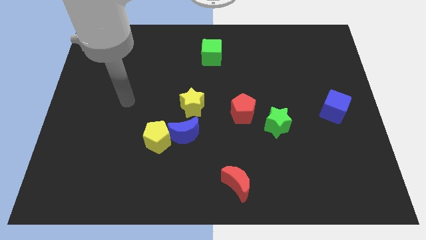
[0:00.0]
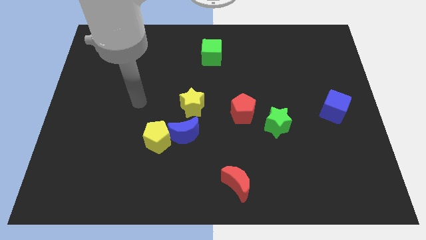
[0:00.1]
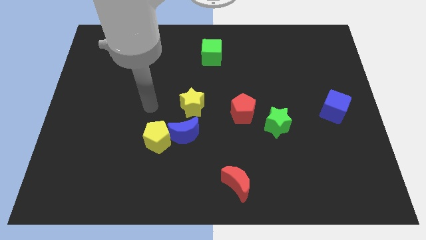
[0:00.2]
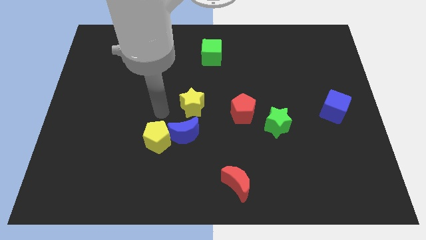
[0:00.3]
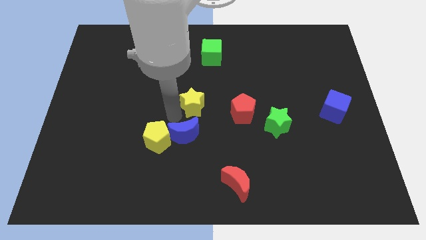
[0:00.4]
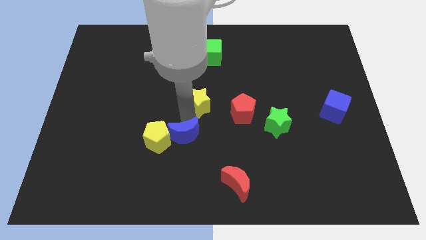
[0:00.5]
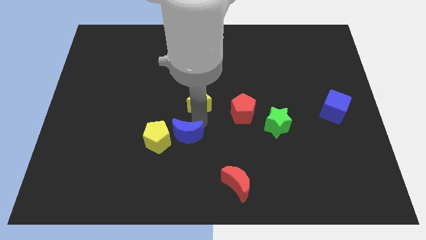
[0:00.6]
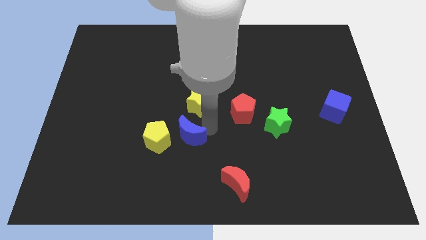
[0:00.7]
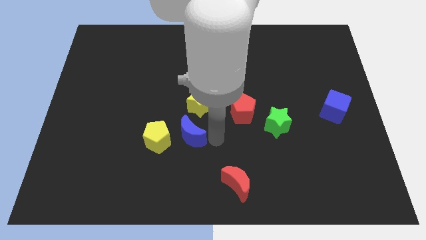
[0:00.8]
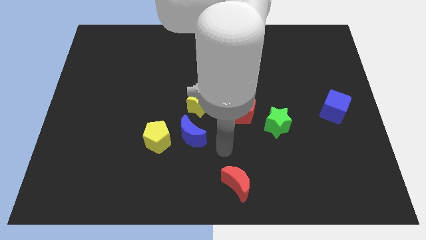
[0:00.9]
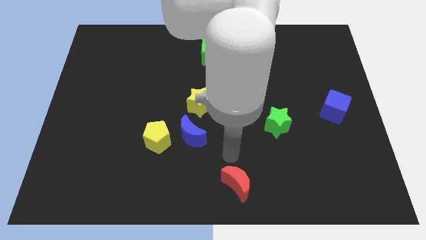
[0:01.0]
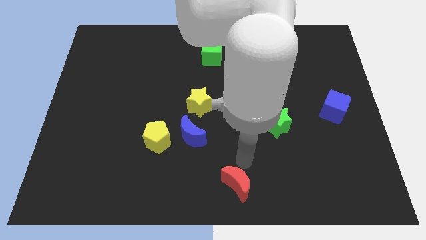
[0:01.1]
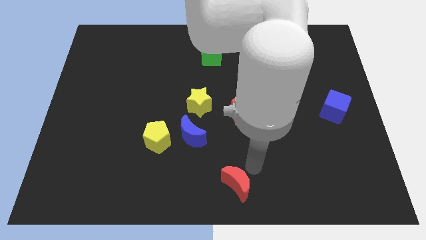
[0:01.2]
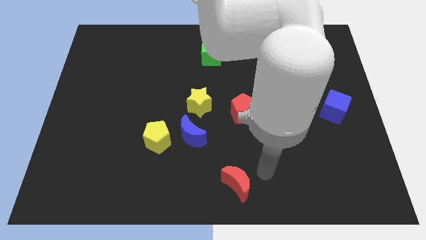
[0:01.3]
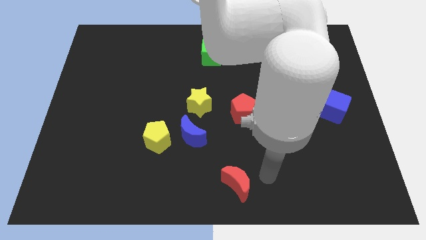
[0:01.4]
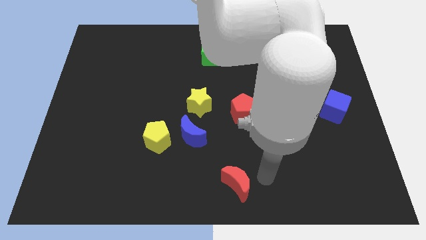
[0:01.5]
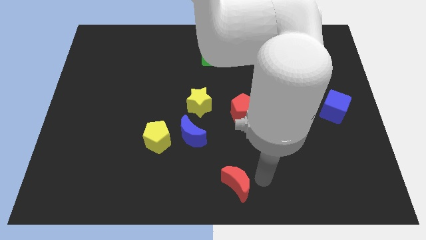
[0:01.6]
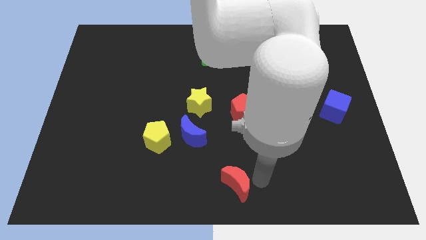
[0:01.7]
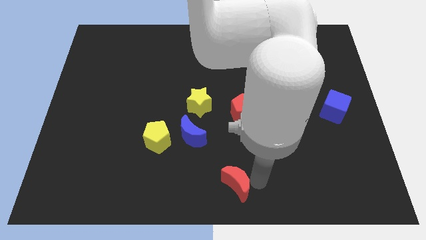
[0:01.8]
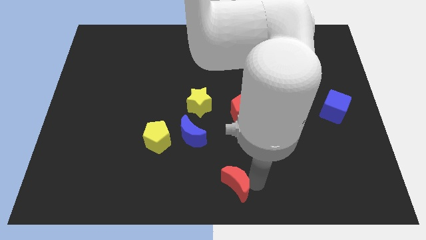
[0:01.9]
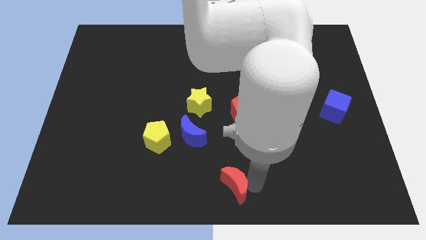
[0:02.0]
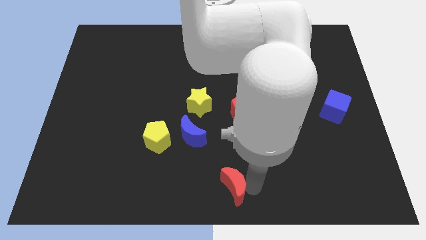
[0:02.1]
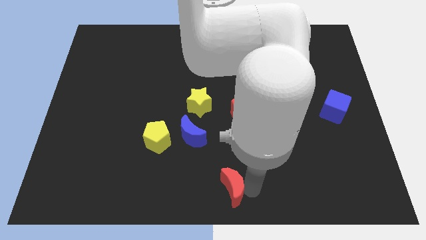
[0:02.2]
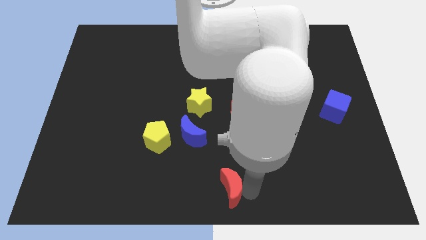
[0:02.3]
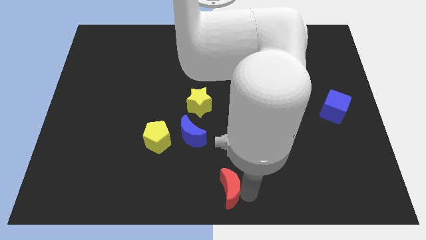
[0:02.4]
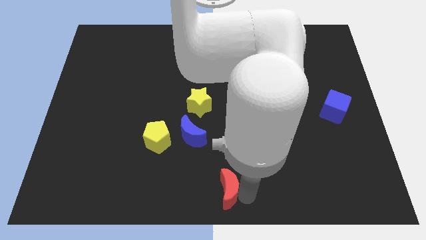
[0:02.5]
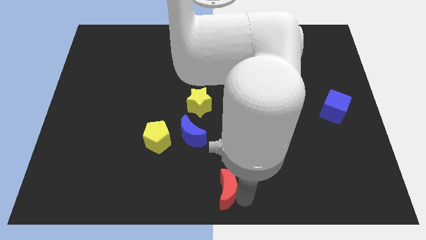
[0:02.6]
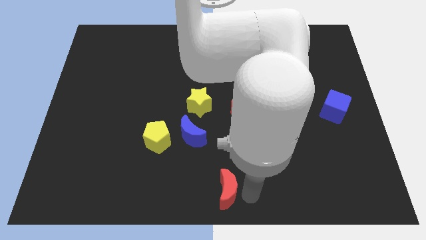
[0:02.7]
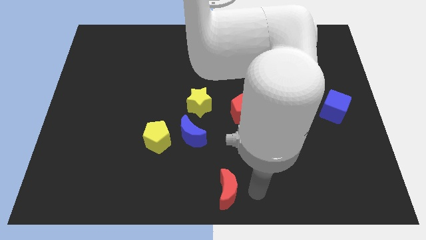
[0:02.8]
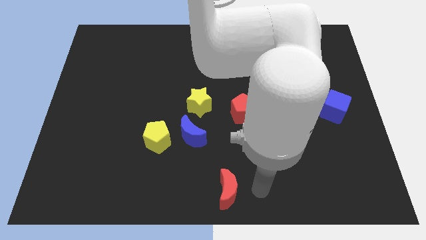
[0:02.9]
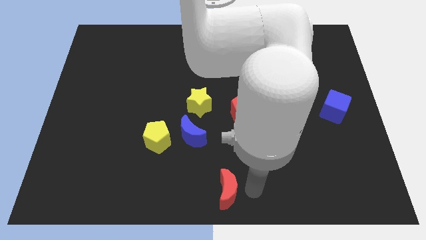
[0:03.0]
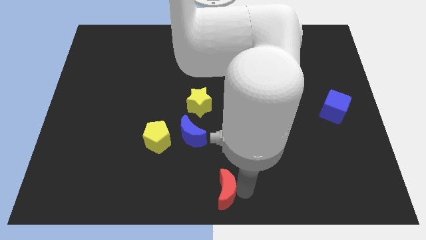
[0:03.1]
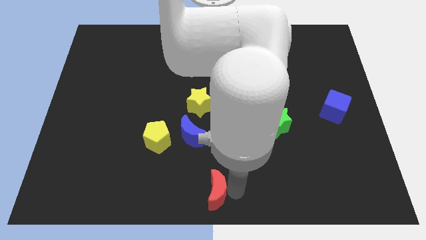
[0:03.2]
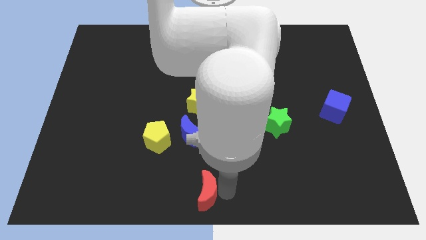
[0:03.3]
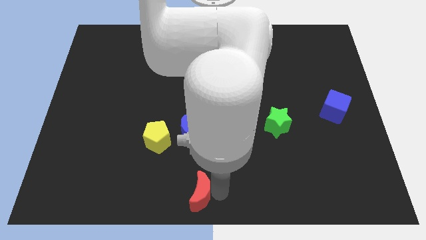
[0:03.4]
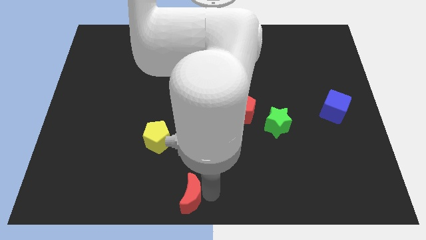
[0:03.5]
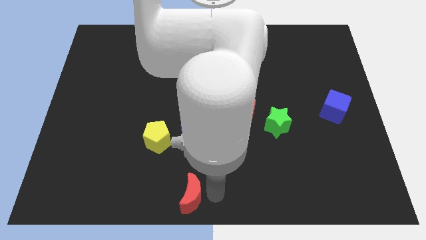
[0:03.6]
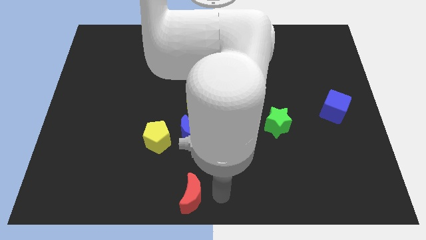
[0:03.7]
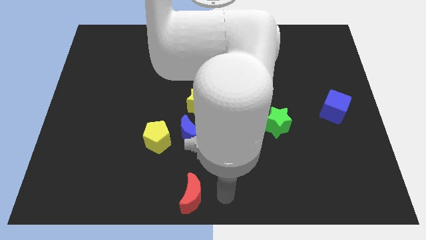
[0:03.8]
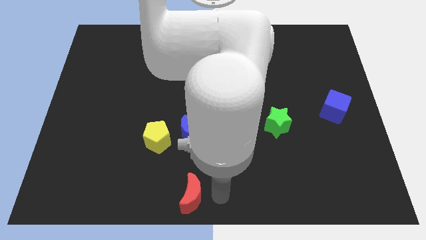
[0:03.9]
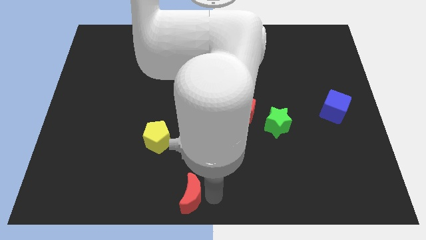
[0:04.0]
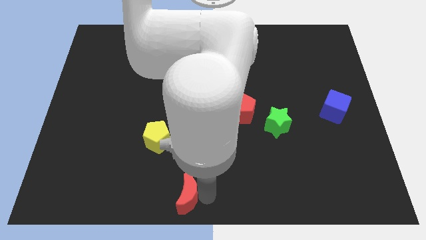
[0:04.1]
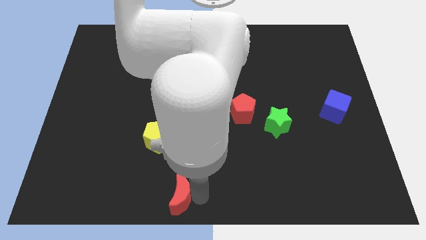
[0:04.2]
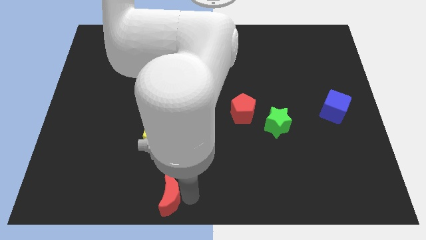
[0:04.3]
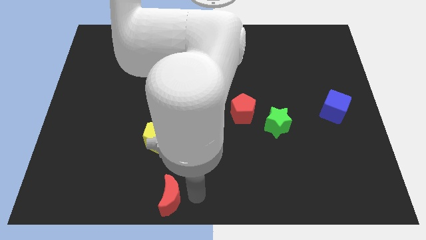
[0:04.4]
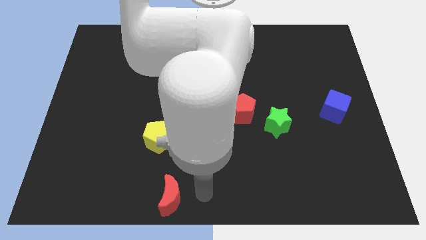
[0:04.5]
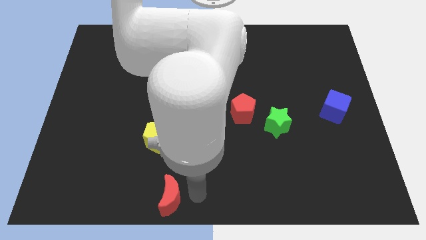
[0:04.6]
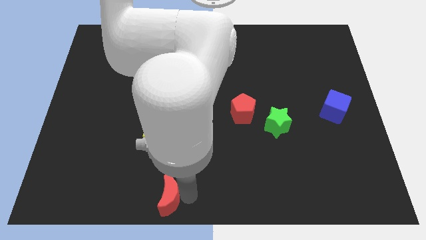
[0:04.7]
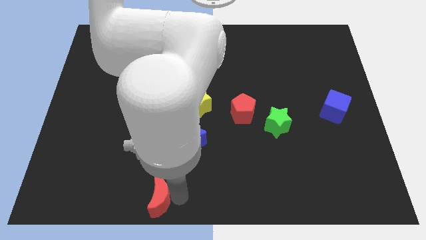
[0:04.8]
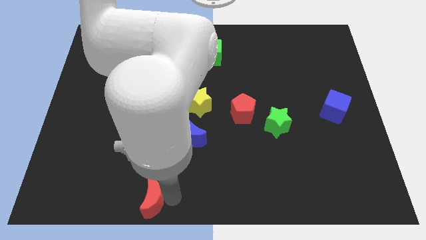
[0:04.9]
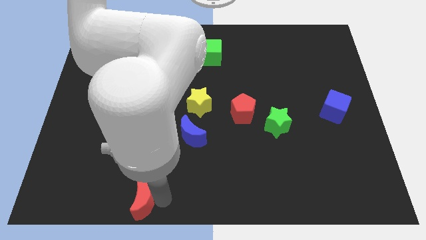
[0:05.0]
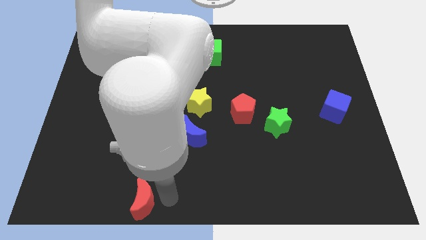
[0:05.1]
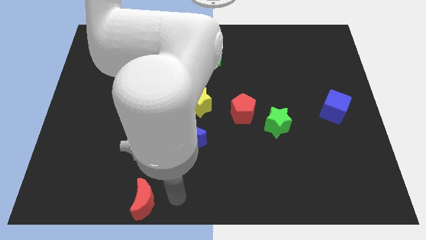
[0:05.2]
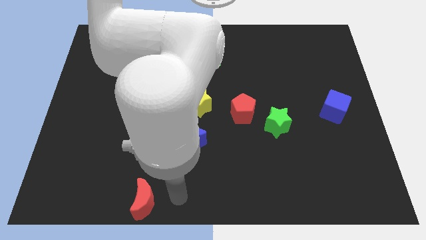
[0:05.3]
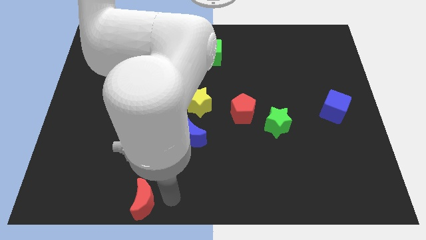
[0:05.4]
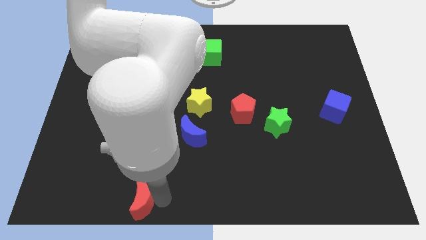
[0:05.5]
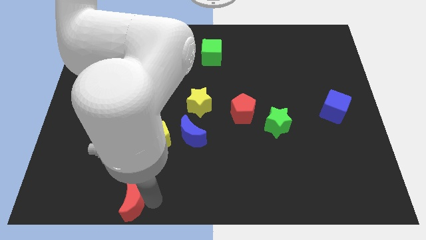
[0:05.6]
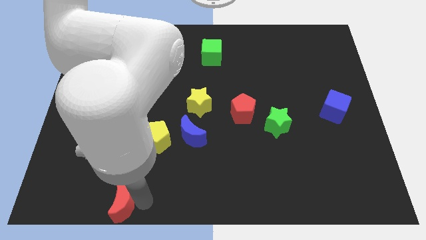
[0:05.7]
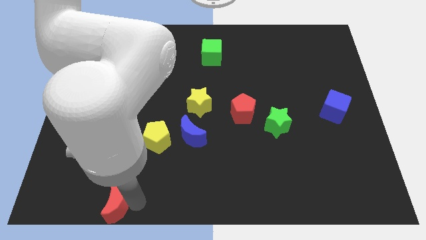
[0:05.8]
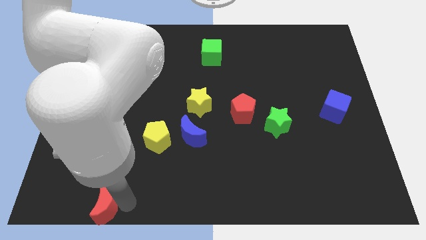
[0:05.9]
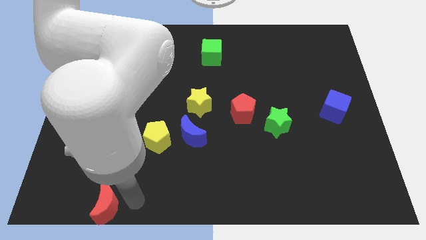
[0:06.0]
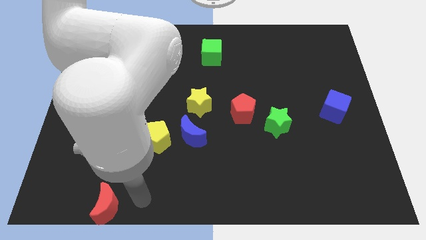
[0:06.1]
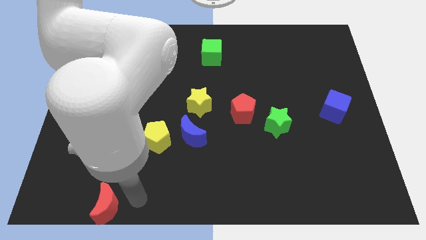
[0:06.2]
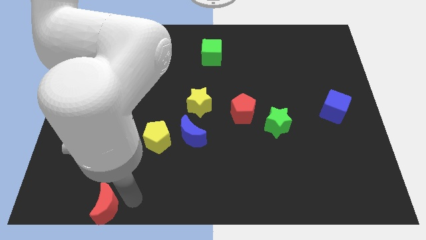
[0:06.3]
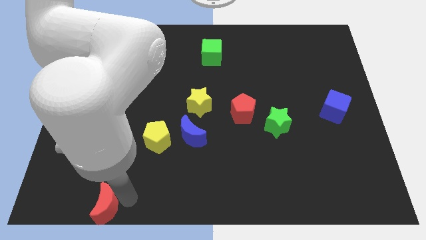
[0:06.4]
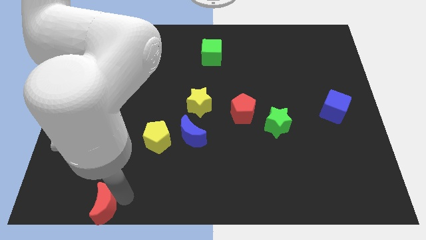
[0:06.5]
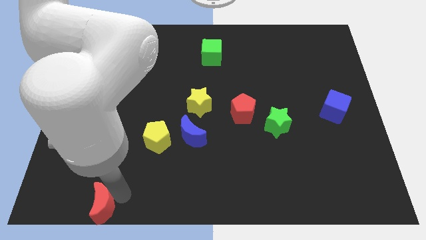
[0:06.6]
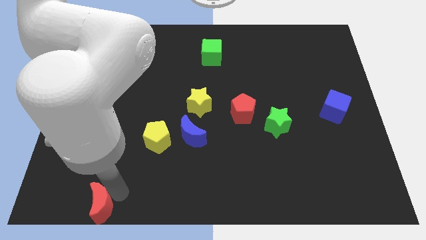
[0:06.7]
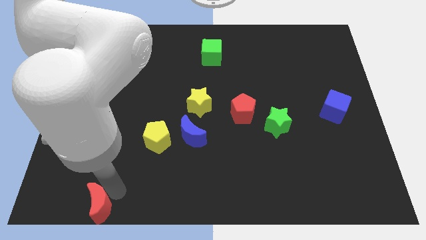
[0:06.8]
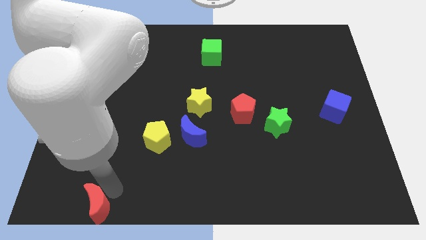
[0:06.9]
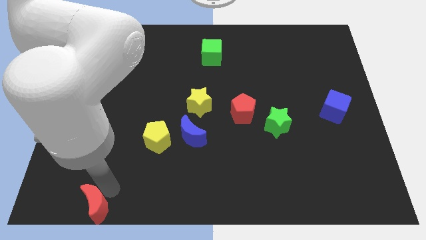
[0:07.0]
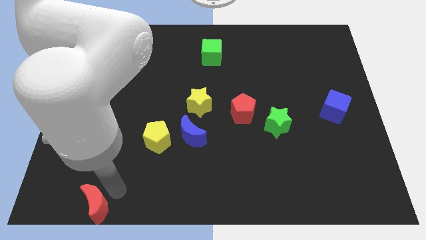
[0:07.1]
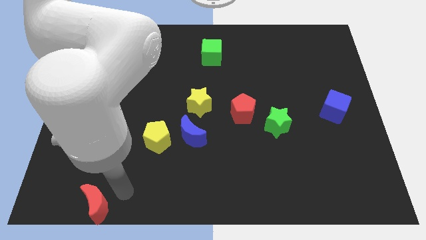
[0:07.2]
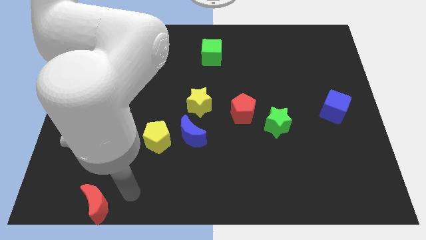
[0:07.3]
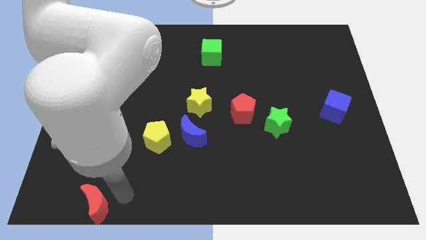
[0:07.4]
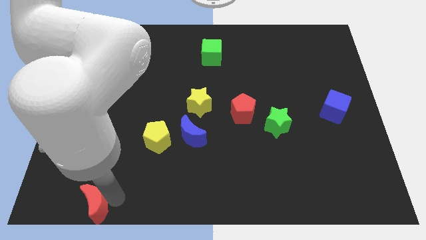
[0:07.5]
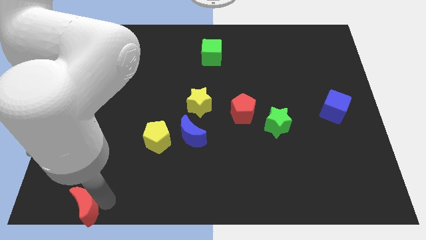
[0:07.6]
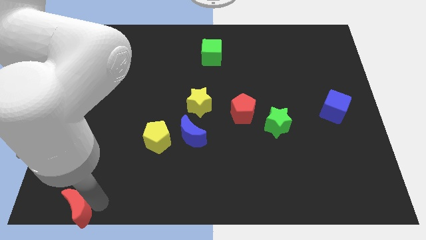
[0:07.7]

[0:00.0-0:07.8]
push the red moon to the bottom left
